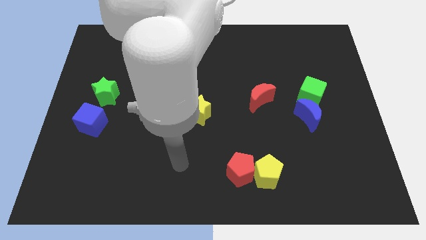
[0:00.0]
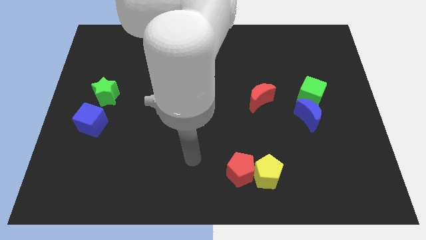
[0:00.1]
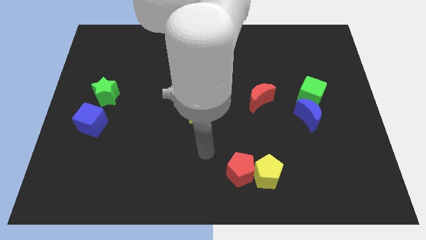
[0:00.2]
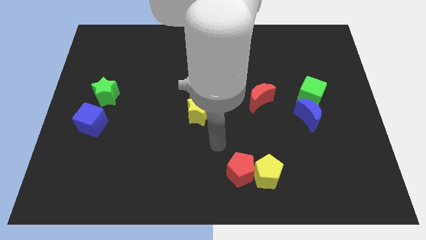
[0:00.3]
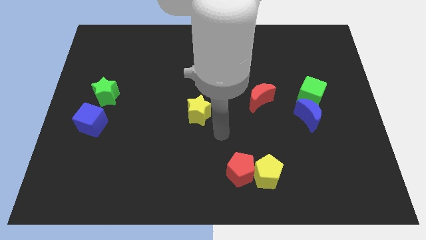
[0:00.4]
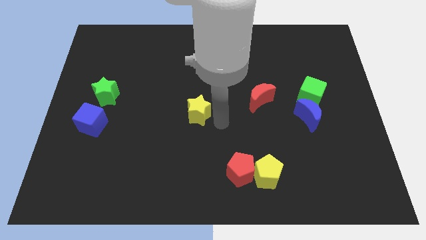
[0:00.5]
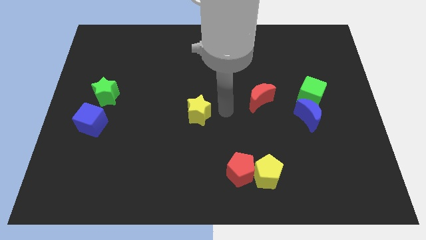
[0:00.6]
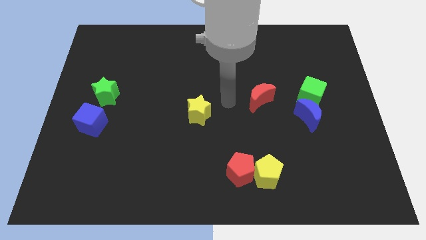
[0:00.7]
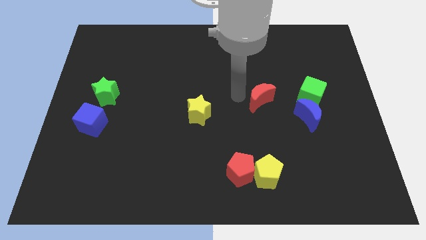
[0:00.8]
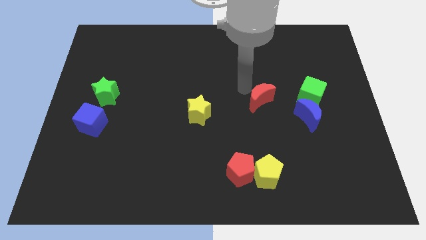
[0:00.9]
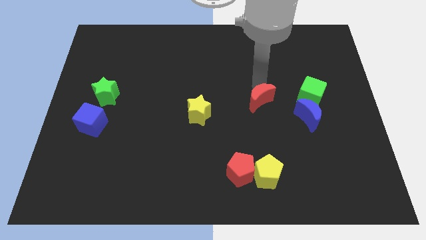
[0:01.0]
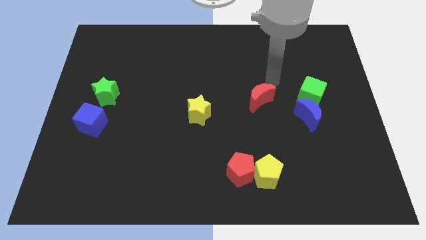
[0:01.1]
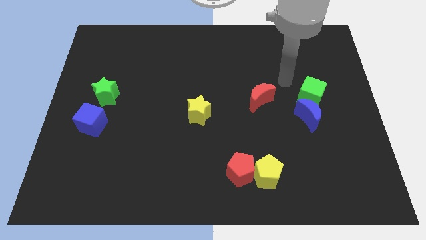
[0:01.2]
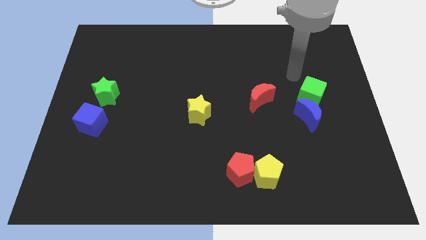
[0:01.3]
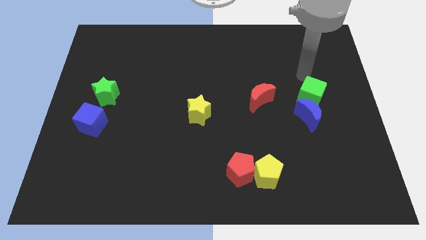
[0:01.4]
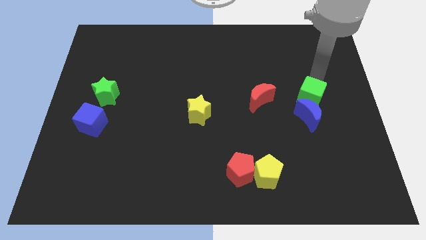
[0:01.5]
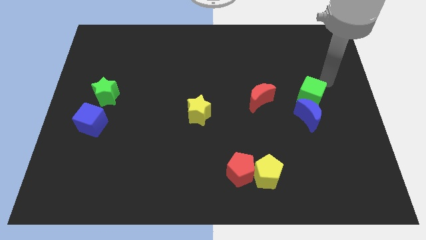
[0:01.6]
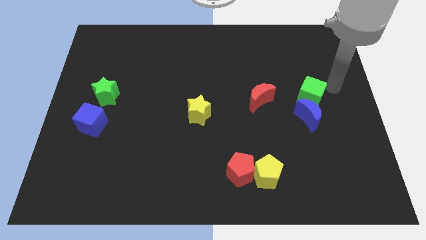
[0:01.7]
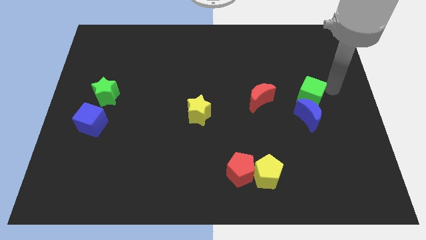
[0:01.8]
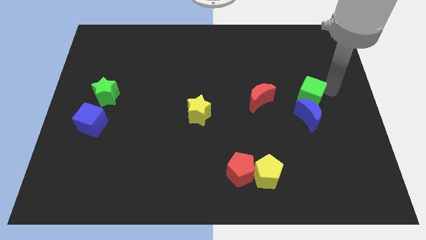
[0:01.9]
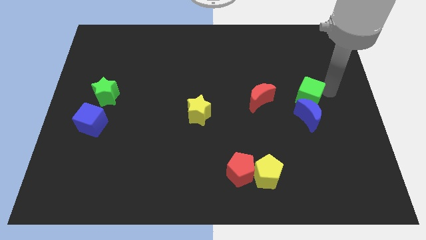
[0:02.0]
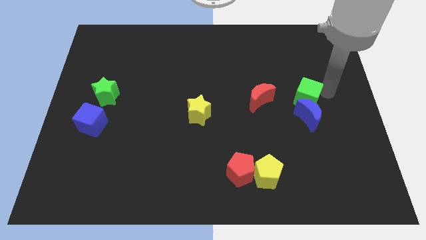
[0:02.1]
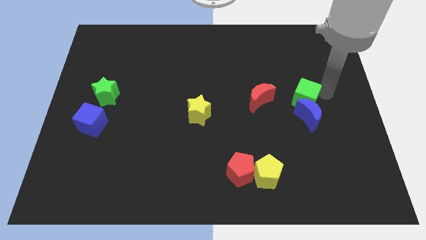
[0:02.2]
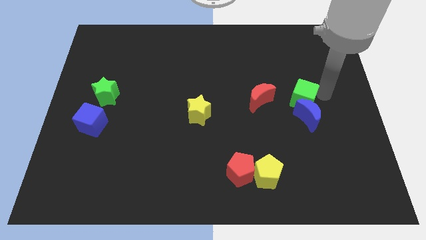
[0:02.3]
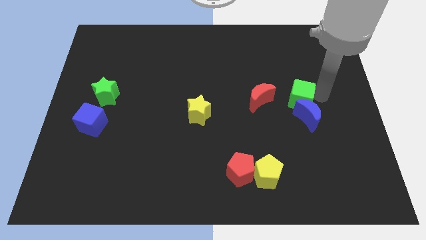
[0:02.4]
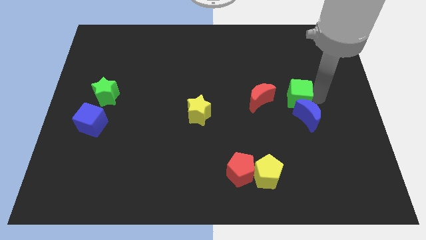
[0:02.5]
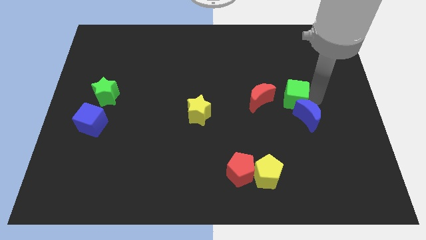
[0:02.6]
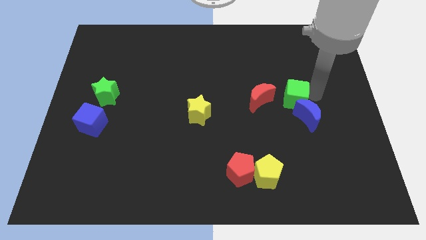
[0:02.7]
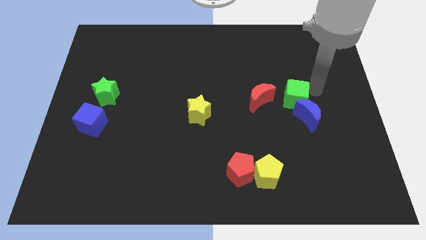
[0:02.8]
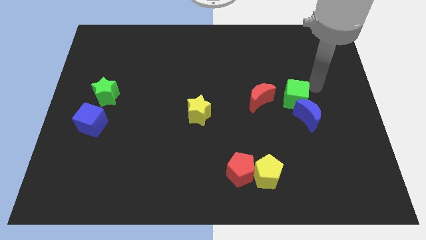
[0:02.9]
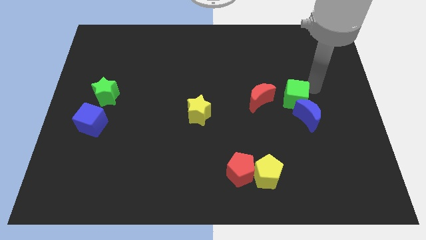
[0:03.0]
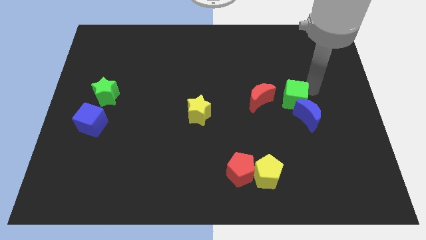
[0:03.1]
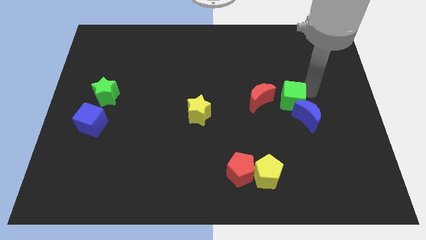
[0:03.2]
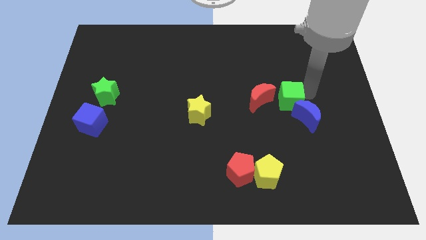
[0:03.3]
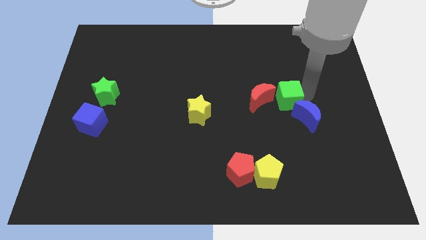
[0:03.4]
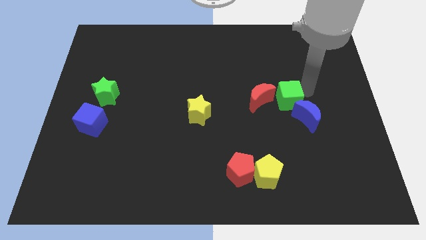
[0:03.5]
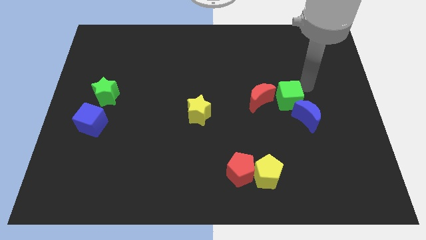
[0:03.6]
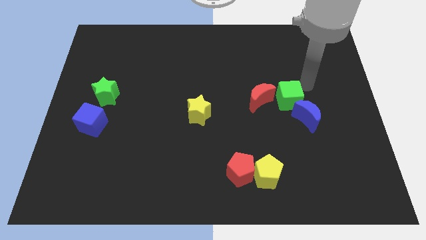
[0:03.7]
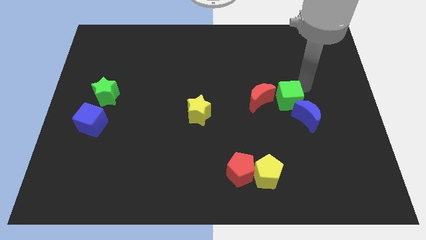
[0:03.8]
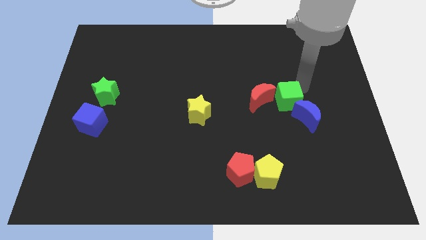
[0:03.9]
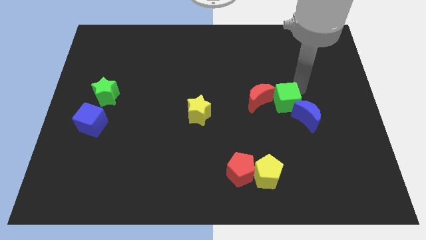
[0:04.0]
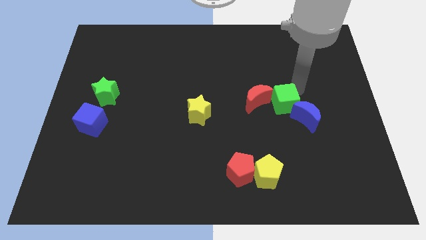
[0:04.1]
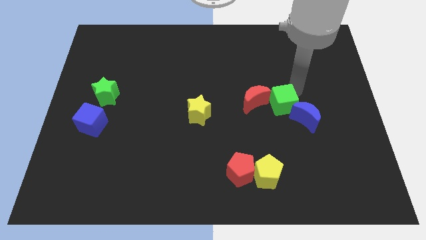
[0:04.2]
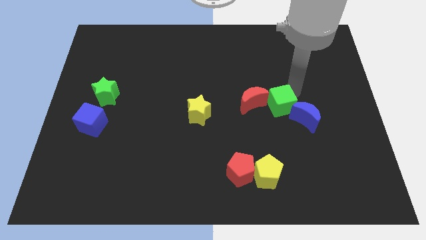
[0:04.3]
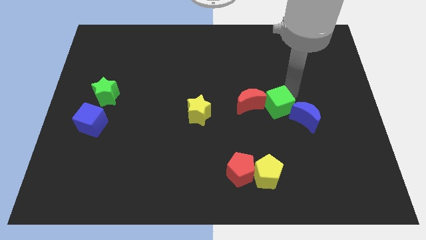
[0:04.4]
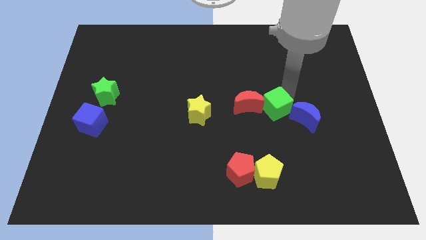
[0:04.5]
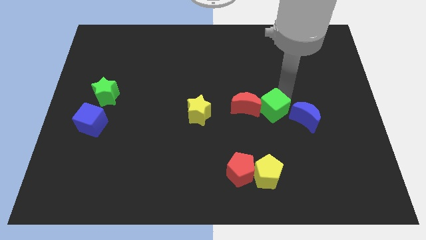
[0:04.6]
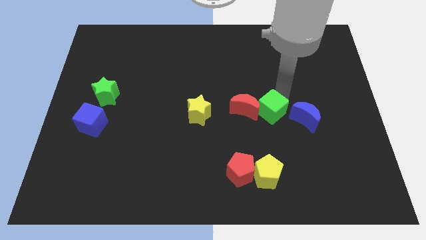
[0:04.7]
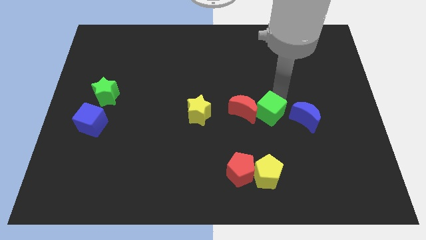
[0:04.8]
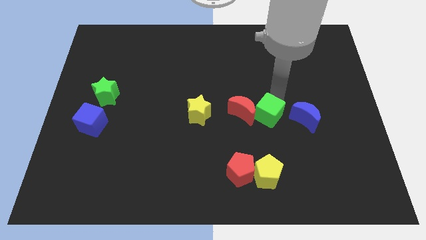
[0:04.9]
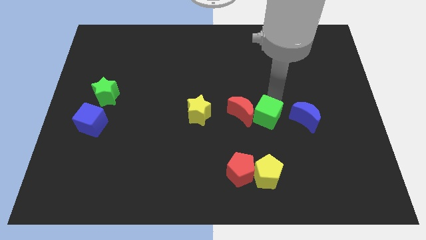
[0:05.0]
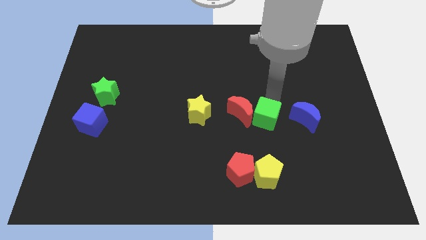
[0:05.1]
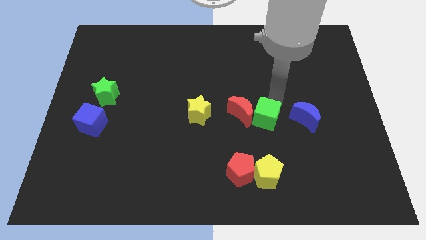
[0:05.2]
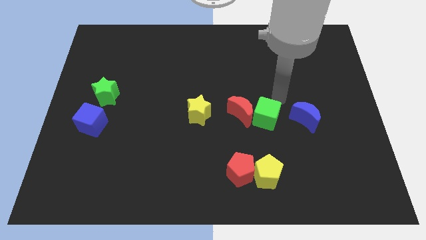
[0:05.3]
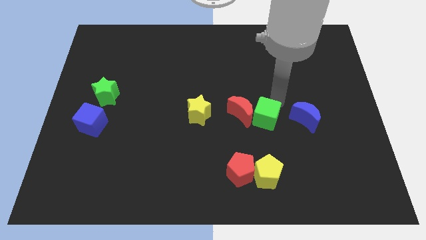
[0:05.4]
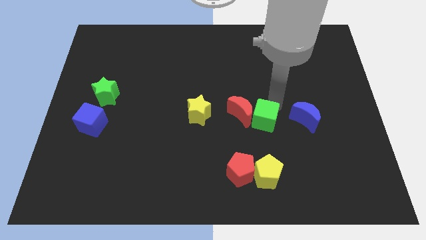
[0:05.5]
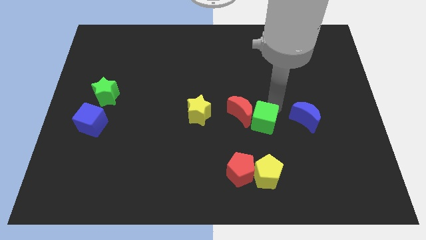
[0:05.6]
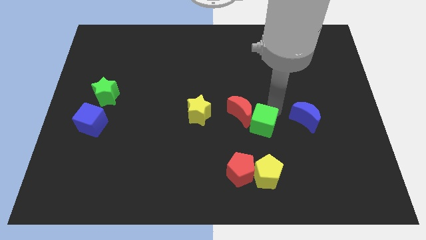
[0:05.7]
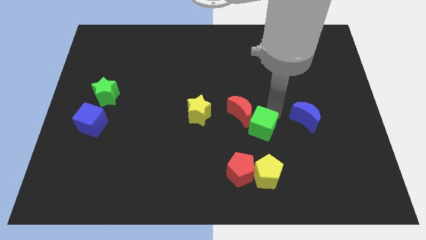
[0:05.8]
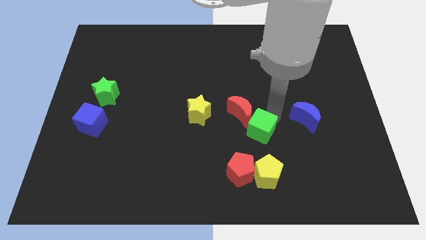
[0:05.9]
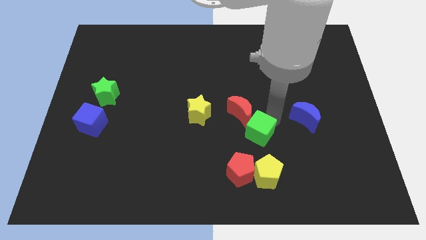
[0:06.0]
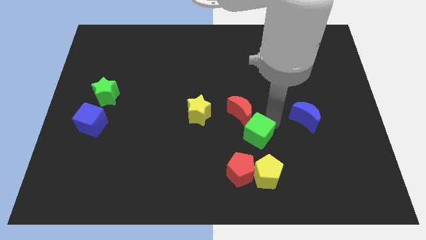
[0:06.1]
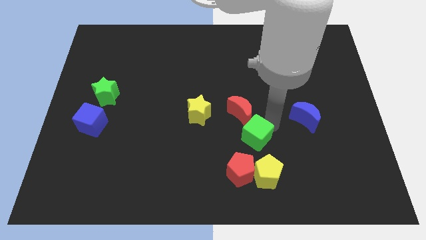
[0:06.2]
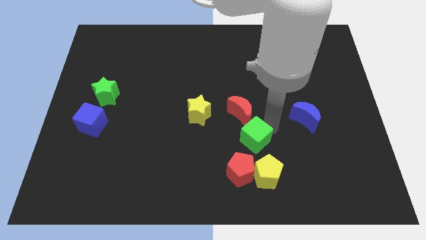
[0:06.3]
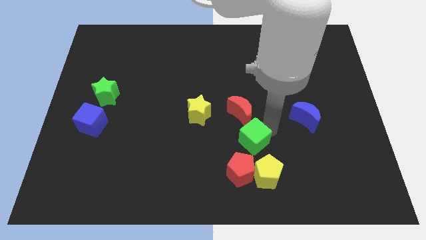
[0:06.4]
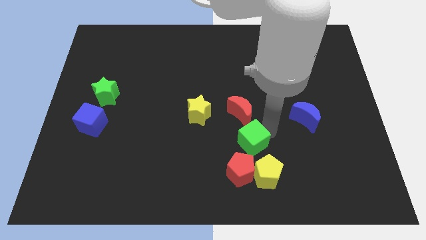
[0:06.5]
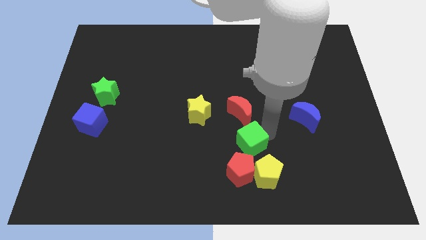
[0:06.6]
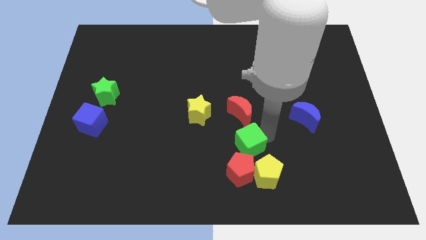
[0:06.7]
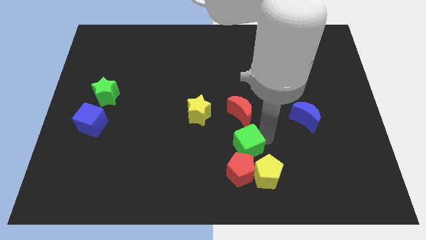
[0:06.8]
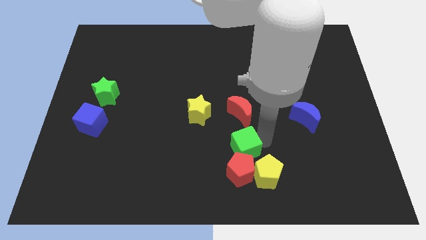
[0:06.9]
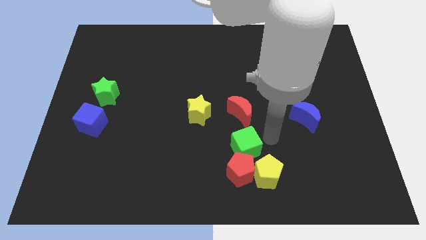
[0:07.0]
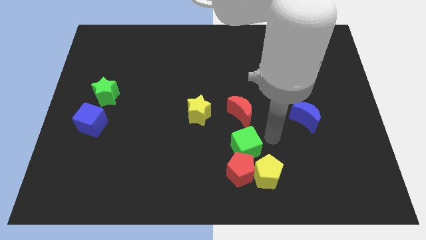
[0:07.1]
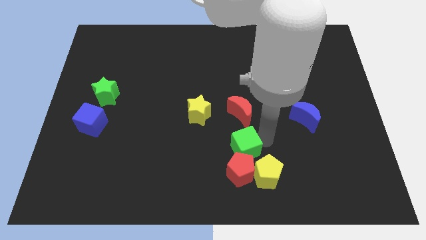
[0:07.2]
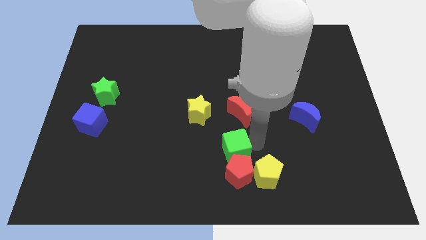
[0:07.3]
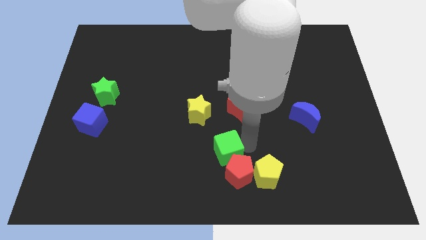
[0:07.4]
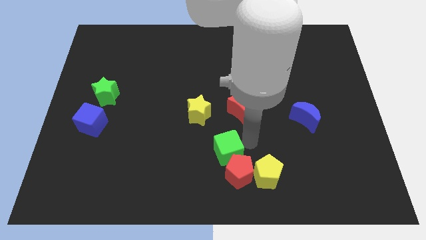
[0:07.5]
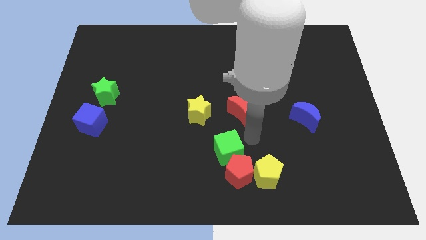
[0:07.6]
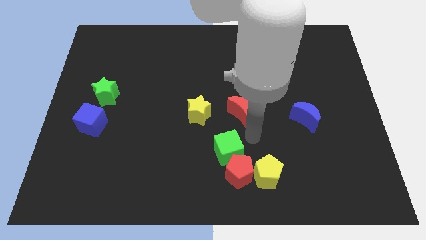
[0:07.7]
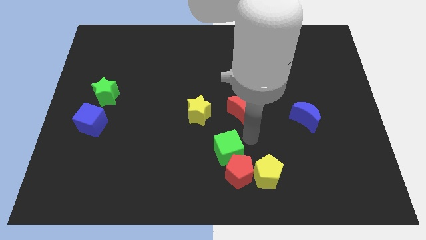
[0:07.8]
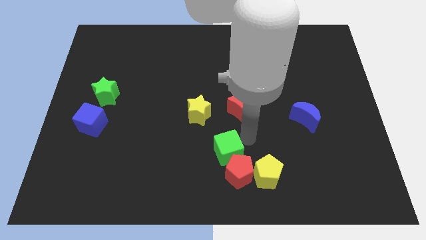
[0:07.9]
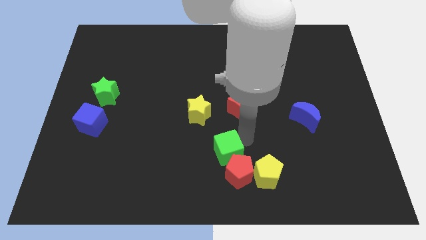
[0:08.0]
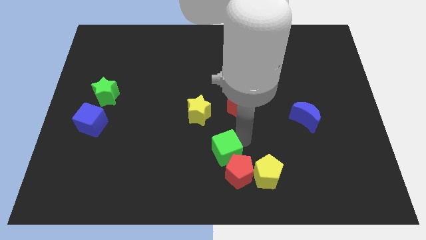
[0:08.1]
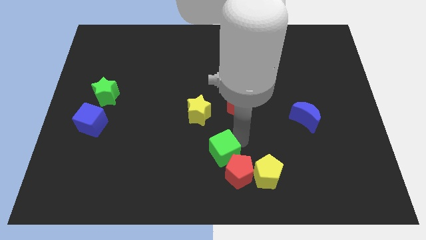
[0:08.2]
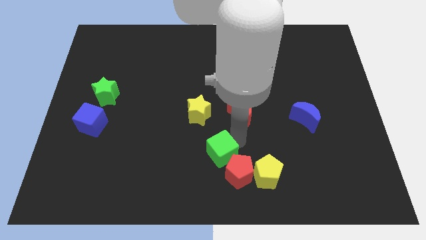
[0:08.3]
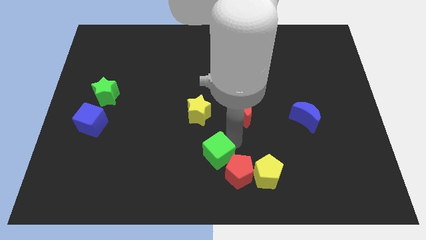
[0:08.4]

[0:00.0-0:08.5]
move the green cube left of the red pentagon
